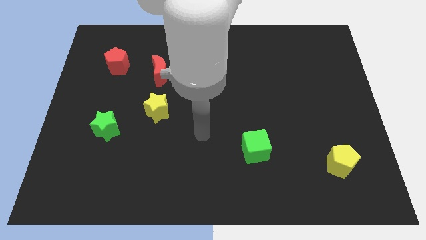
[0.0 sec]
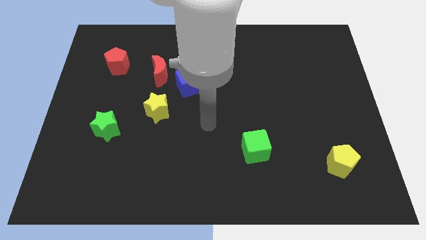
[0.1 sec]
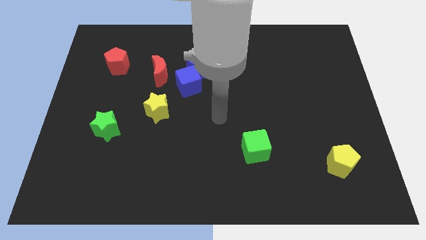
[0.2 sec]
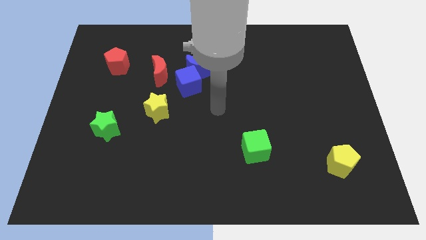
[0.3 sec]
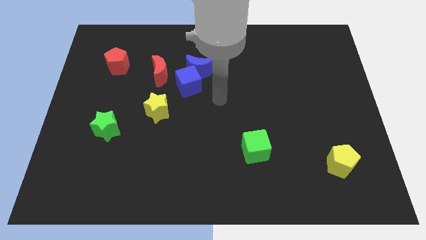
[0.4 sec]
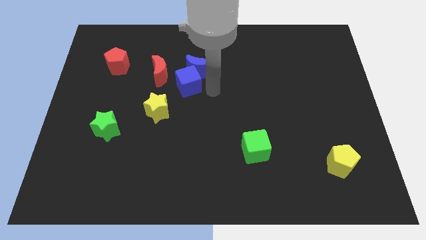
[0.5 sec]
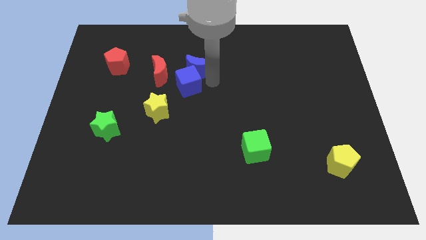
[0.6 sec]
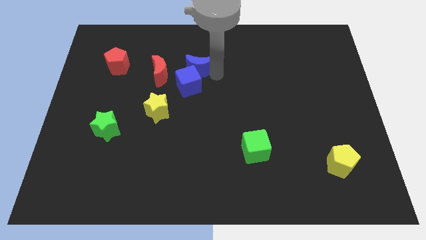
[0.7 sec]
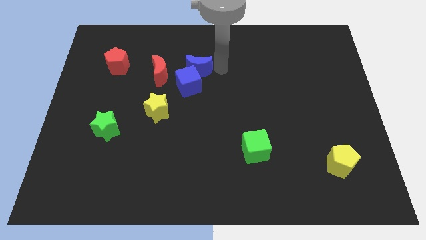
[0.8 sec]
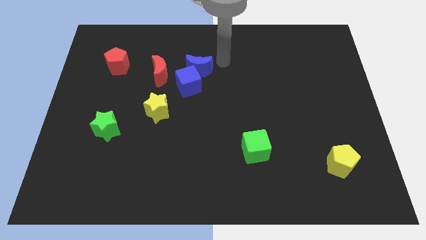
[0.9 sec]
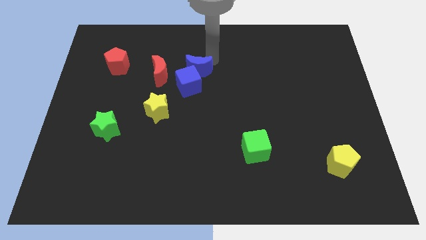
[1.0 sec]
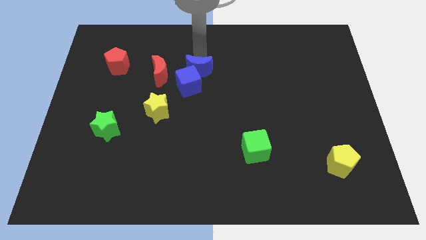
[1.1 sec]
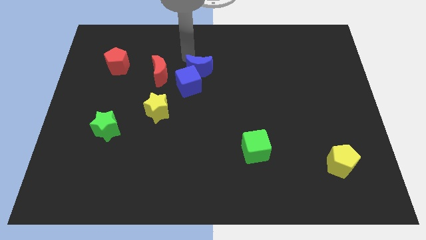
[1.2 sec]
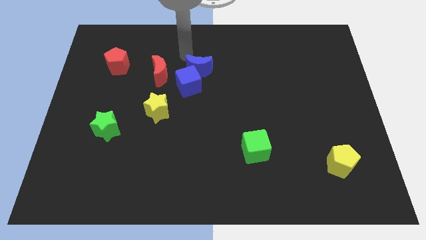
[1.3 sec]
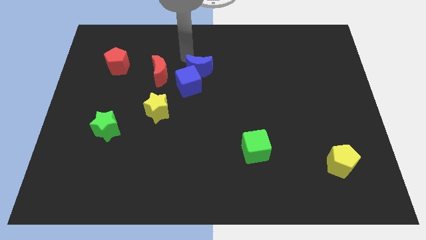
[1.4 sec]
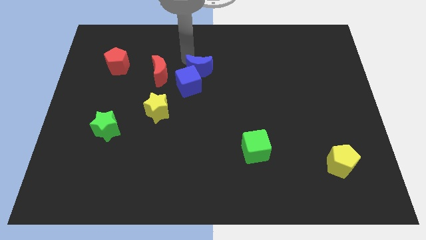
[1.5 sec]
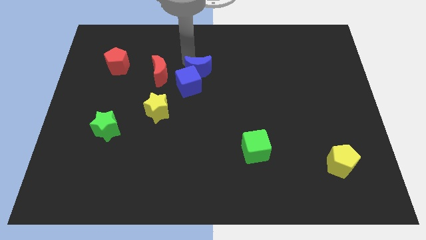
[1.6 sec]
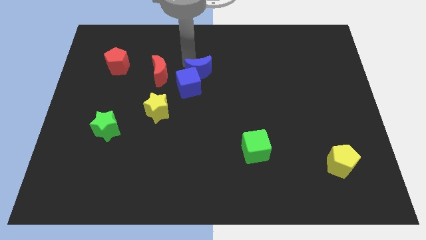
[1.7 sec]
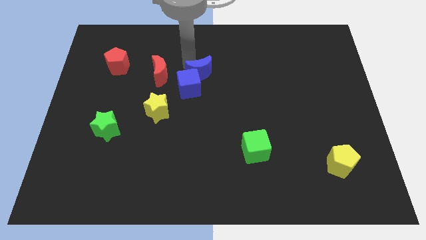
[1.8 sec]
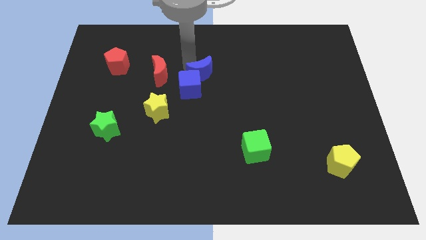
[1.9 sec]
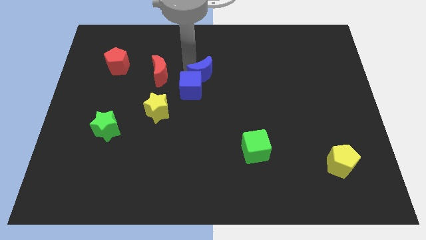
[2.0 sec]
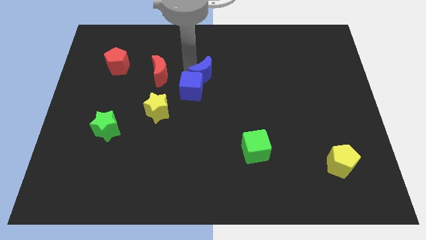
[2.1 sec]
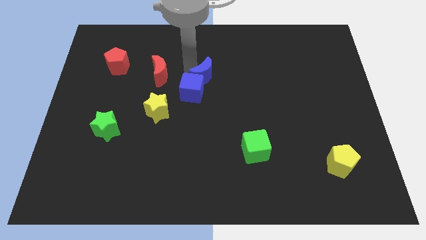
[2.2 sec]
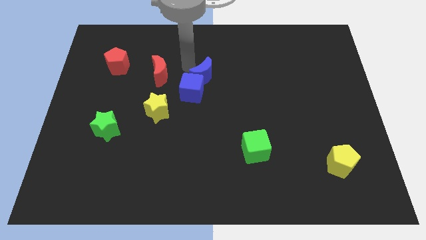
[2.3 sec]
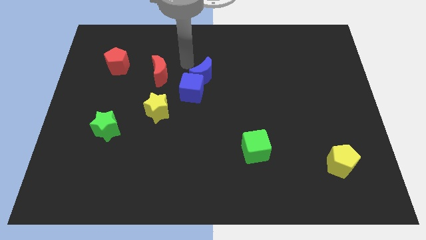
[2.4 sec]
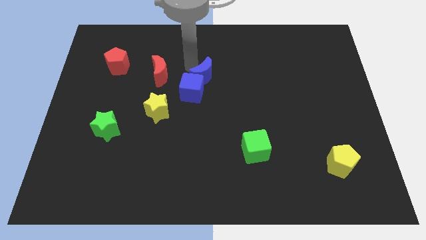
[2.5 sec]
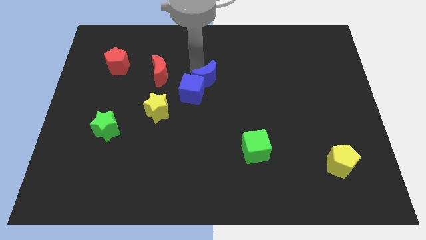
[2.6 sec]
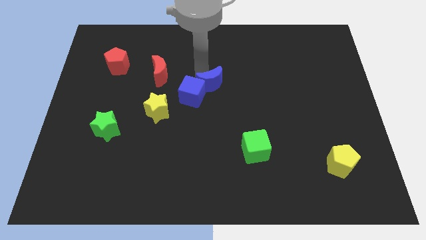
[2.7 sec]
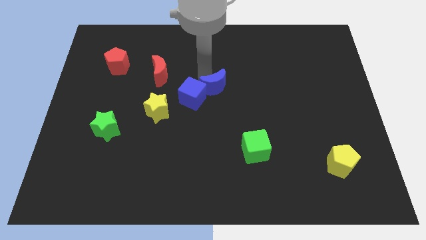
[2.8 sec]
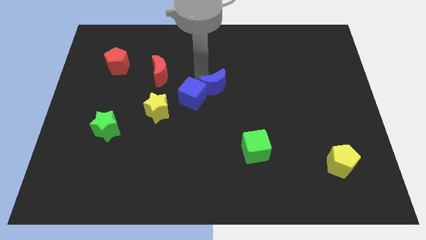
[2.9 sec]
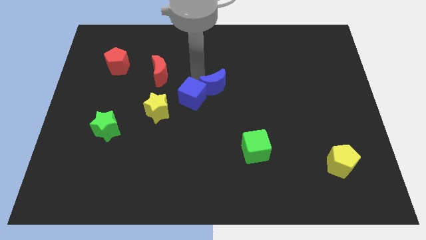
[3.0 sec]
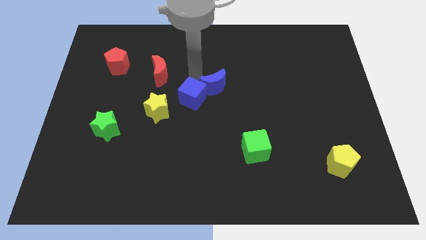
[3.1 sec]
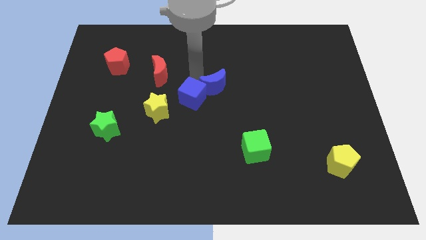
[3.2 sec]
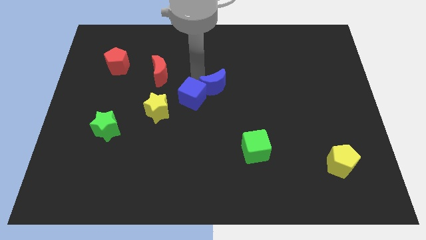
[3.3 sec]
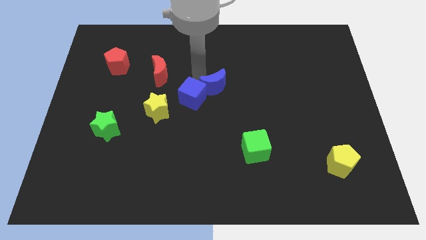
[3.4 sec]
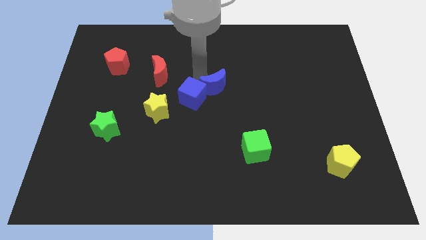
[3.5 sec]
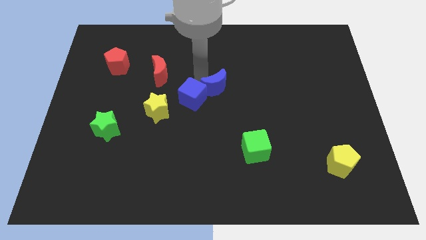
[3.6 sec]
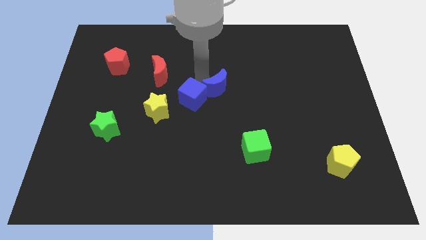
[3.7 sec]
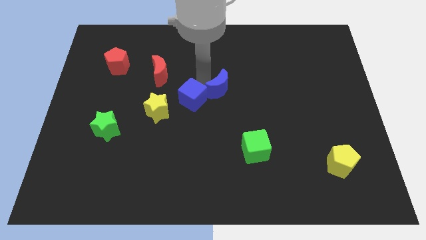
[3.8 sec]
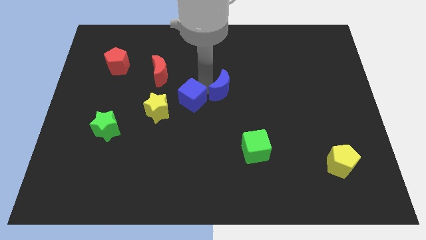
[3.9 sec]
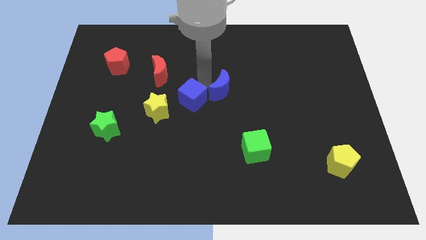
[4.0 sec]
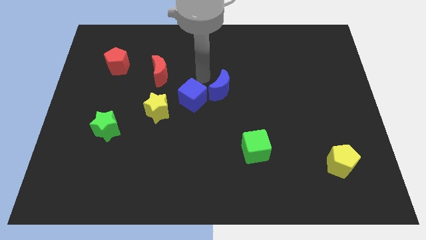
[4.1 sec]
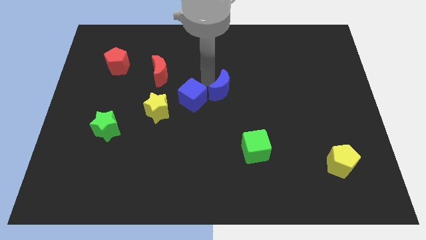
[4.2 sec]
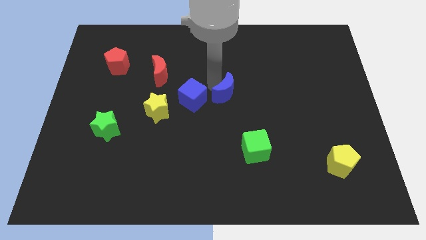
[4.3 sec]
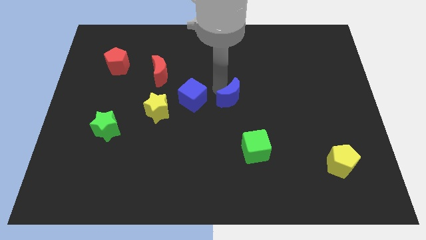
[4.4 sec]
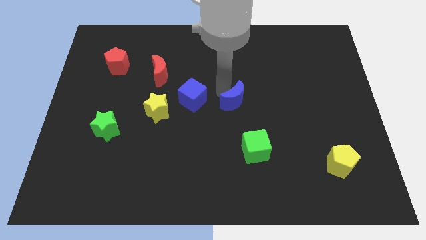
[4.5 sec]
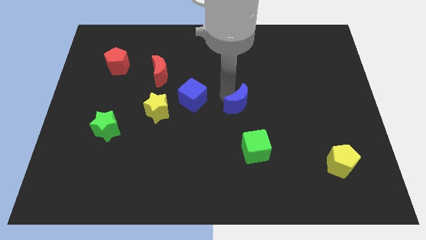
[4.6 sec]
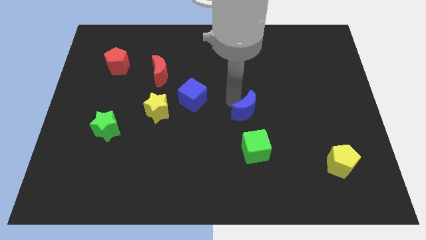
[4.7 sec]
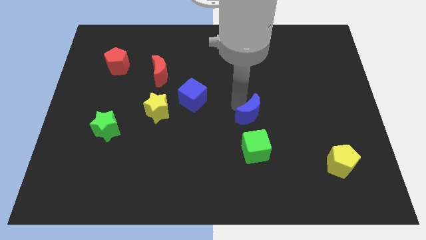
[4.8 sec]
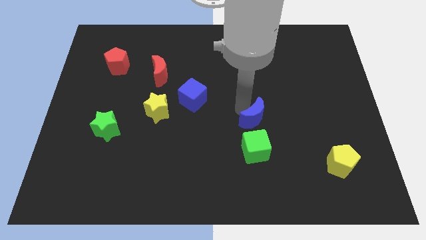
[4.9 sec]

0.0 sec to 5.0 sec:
slide the blue moon downwards and then right

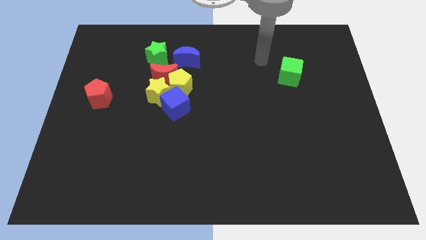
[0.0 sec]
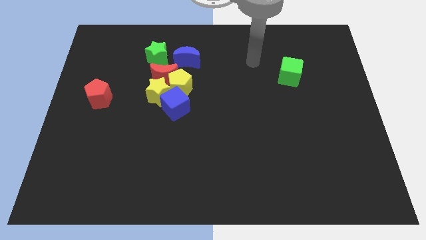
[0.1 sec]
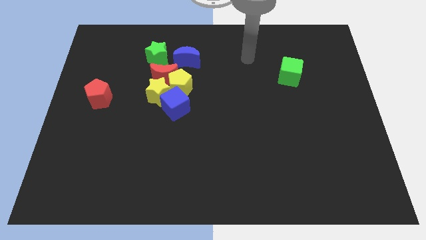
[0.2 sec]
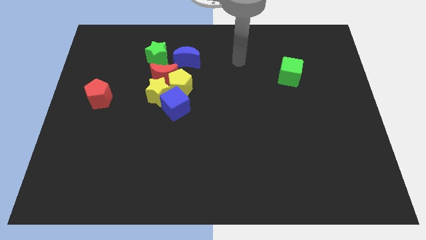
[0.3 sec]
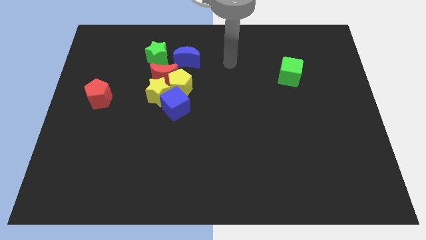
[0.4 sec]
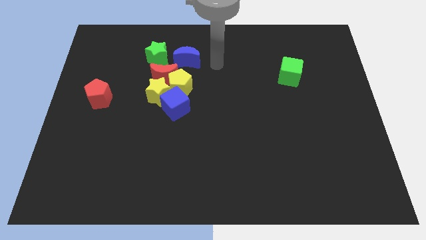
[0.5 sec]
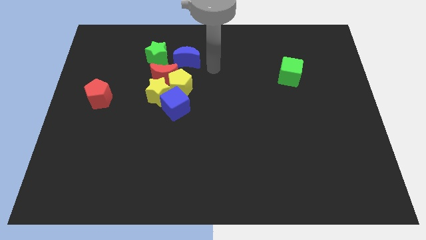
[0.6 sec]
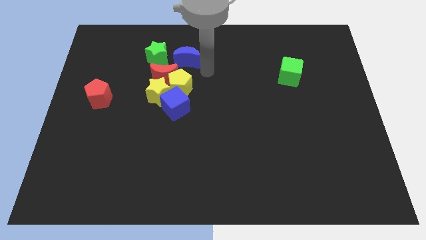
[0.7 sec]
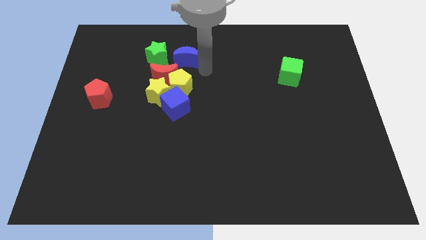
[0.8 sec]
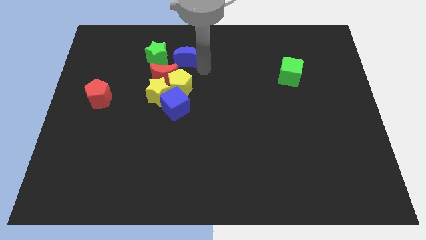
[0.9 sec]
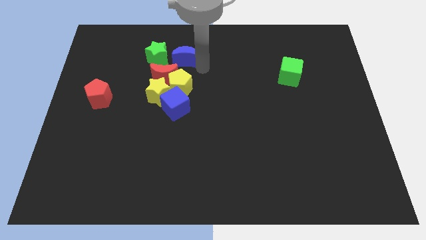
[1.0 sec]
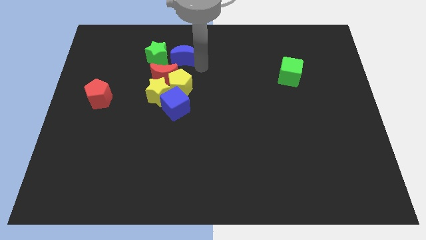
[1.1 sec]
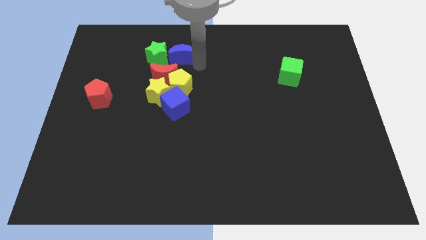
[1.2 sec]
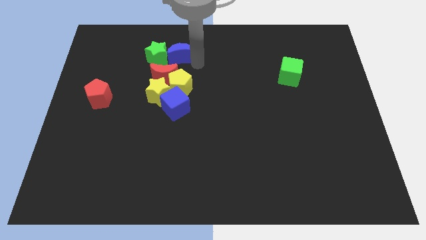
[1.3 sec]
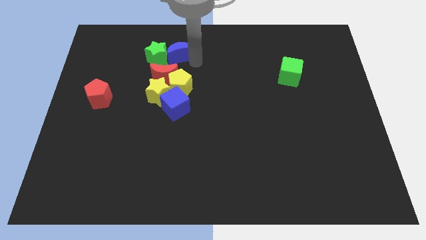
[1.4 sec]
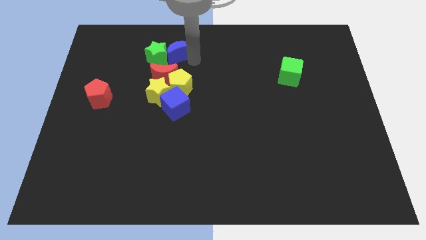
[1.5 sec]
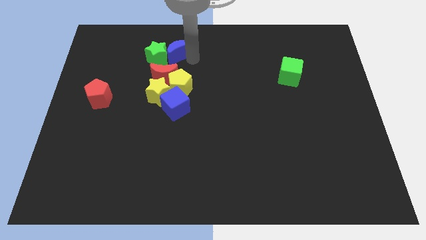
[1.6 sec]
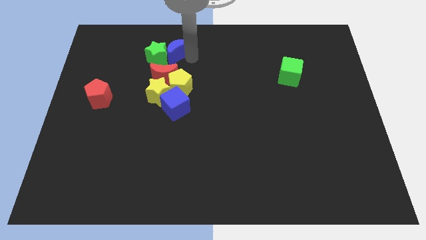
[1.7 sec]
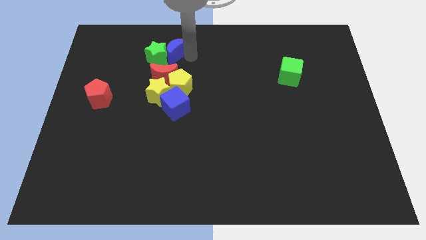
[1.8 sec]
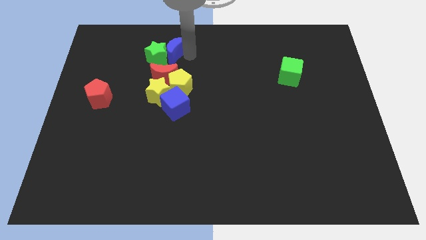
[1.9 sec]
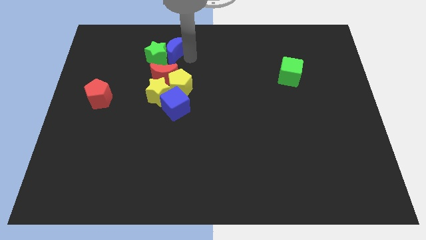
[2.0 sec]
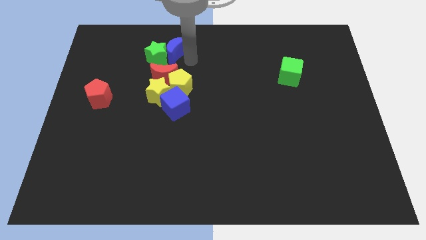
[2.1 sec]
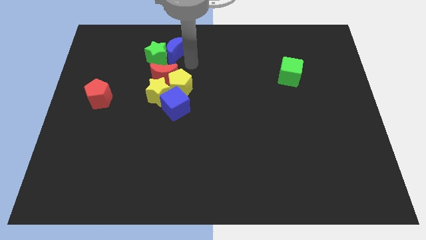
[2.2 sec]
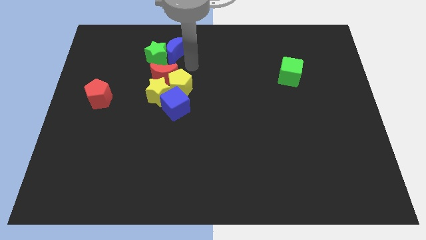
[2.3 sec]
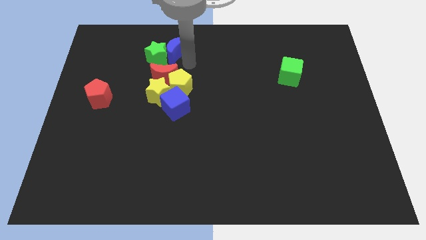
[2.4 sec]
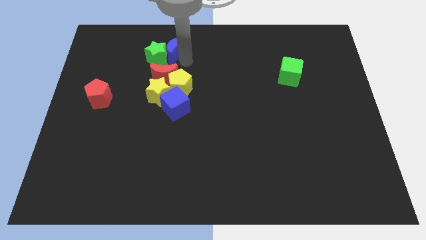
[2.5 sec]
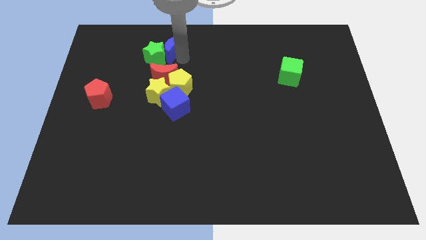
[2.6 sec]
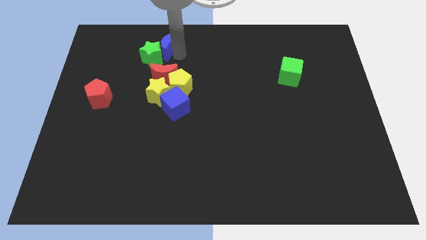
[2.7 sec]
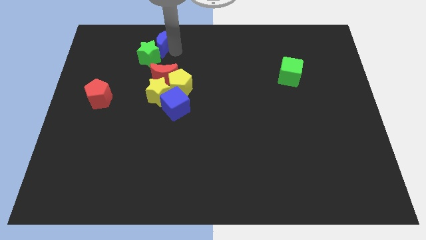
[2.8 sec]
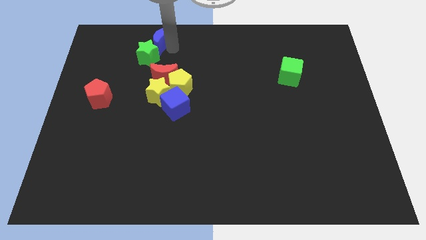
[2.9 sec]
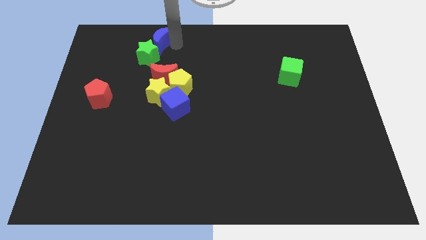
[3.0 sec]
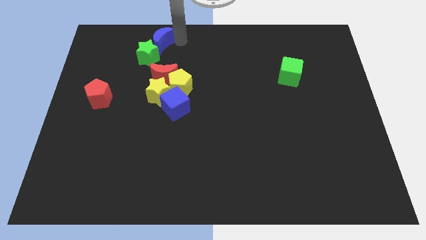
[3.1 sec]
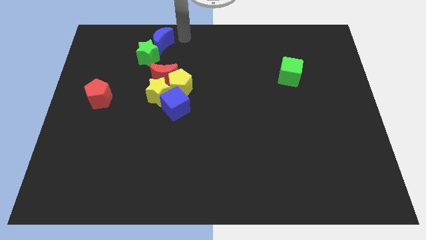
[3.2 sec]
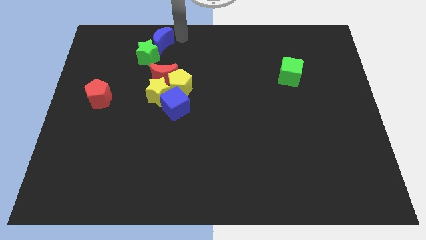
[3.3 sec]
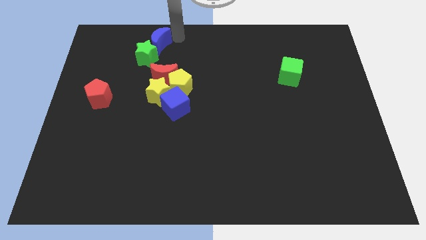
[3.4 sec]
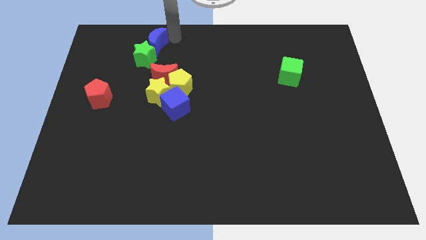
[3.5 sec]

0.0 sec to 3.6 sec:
slightly move the blue moon to the left
